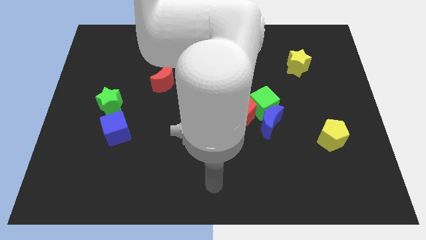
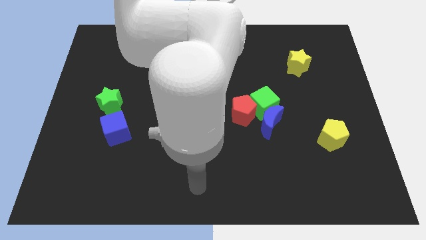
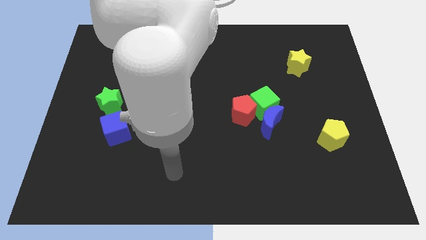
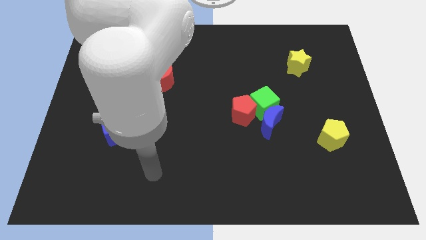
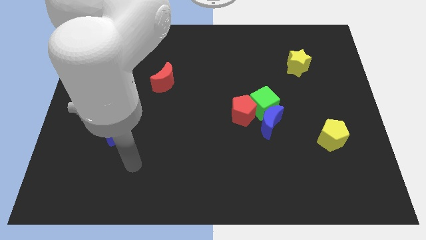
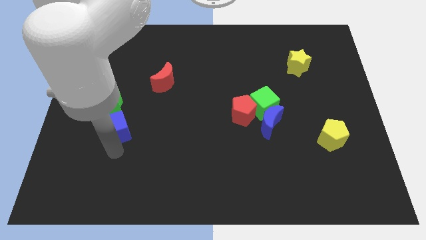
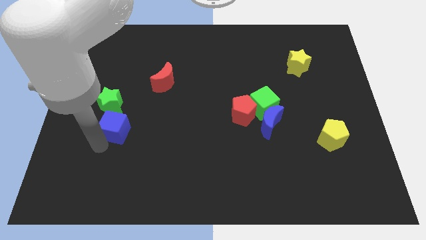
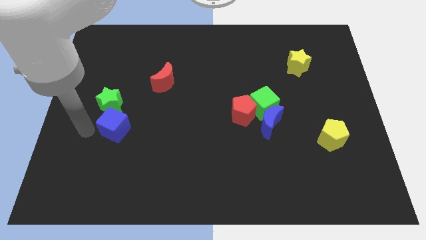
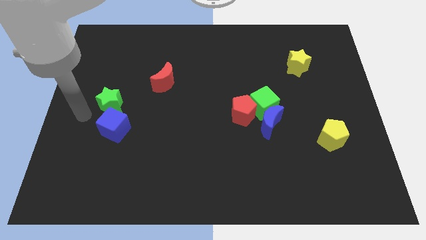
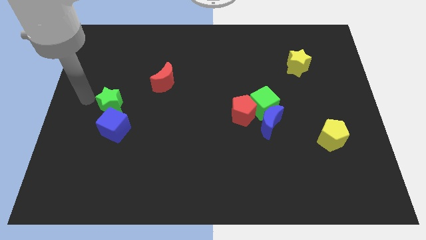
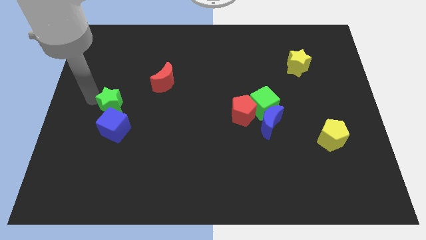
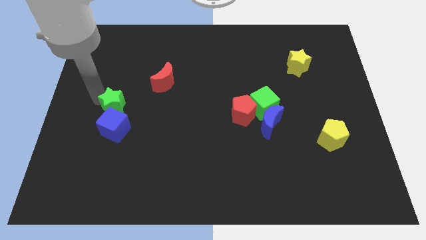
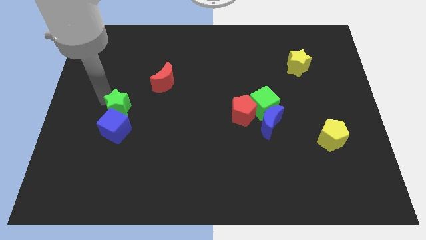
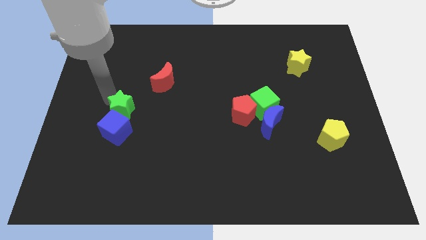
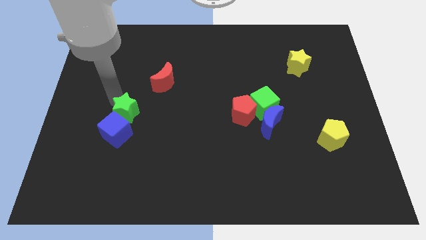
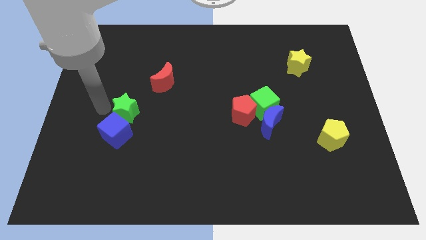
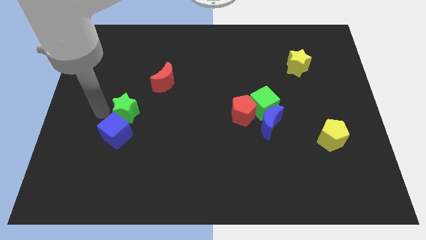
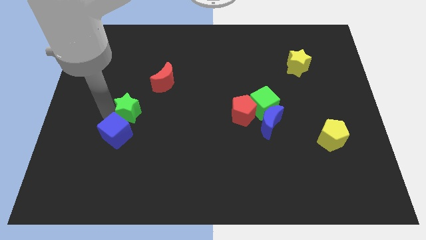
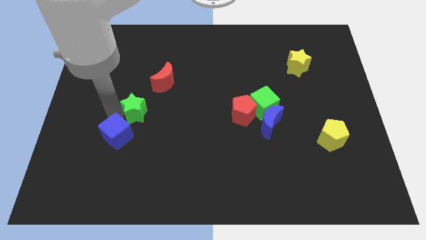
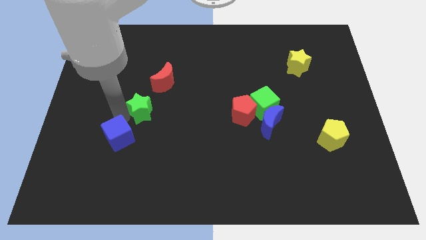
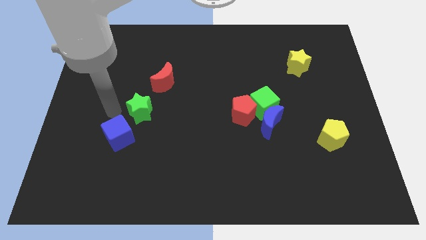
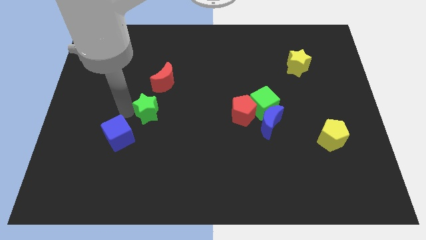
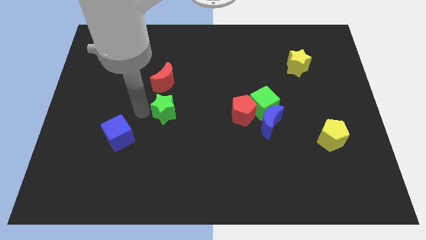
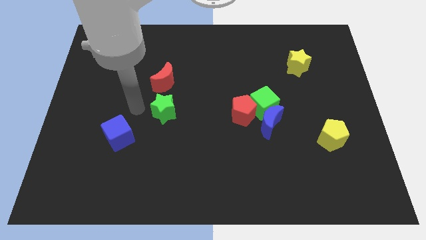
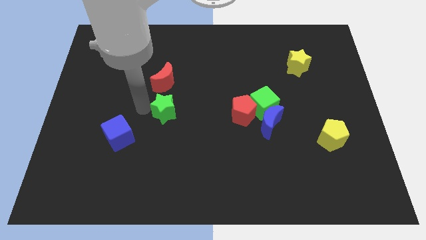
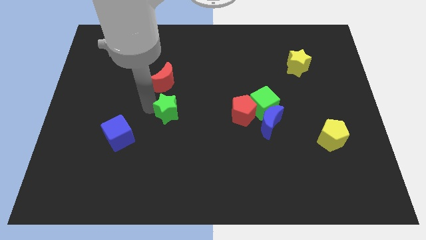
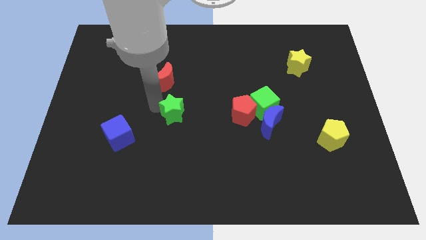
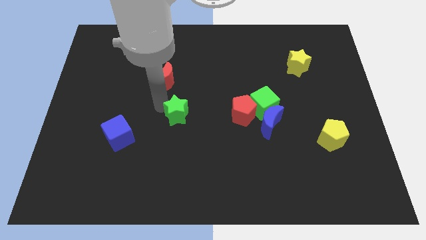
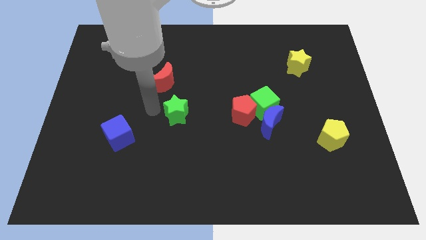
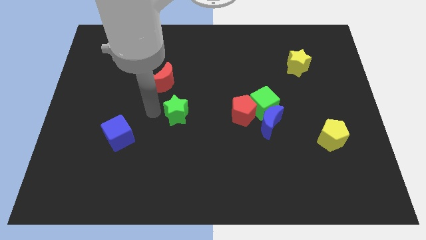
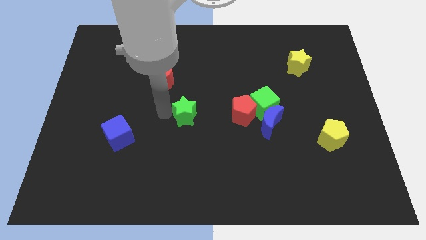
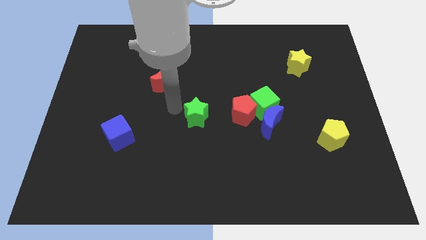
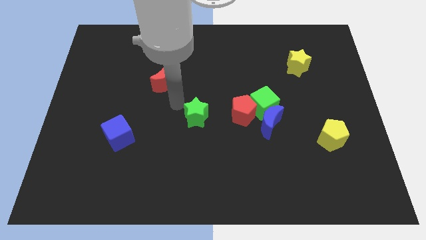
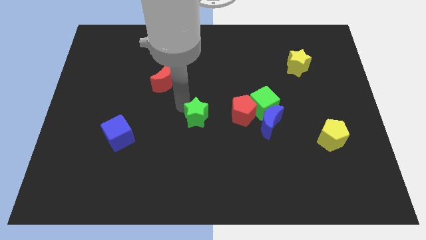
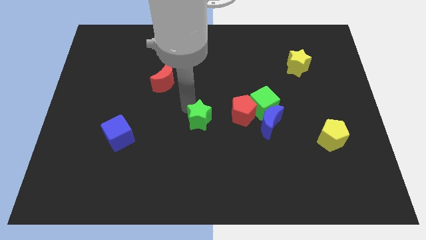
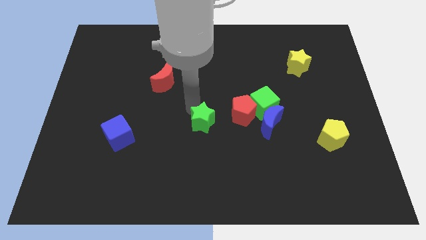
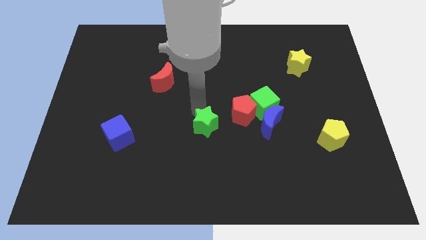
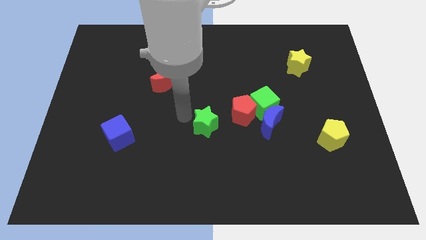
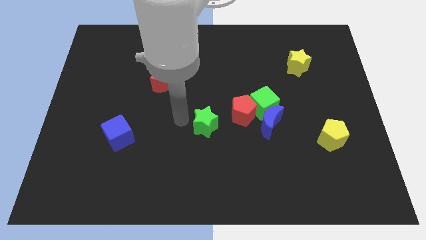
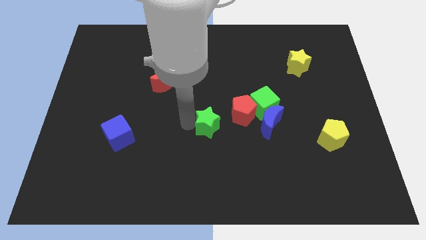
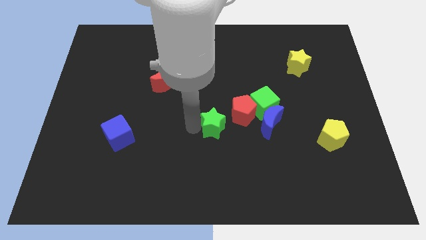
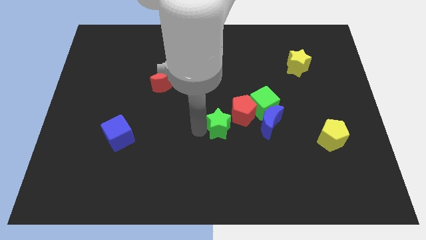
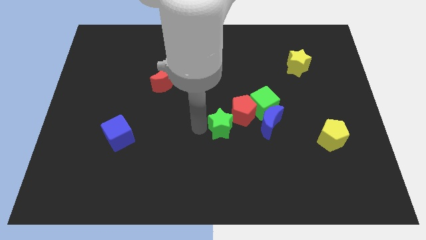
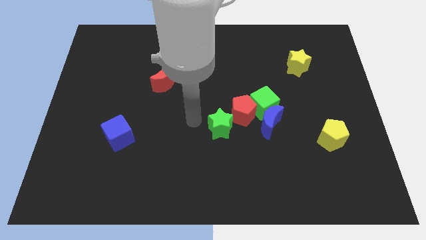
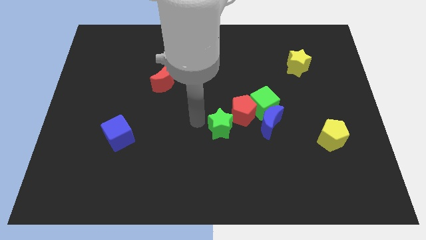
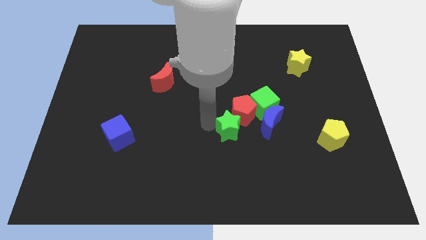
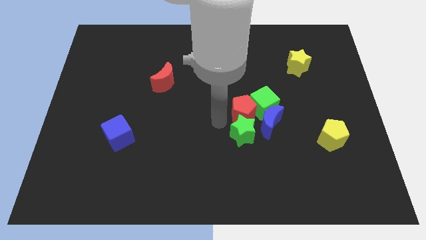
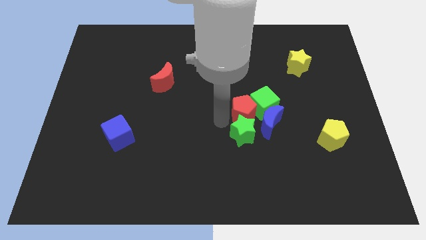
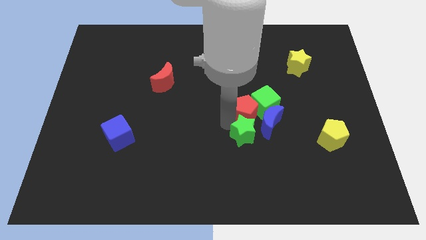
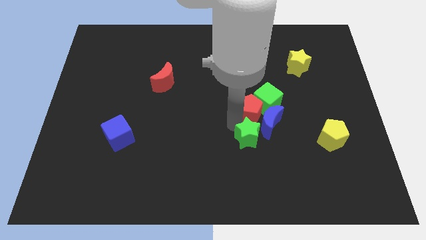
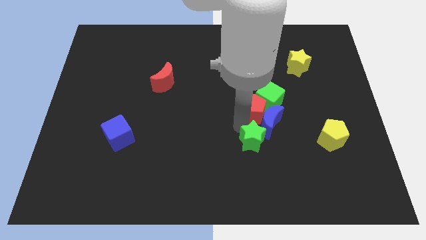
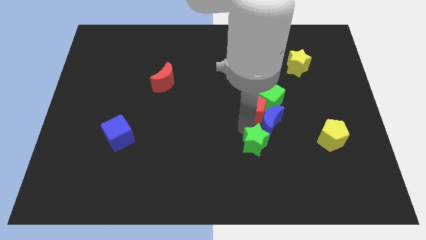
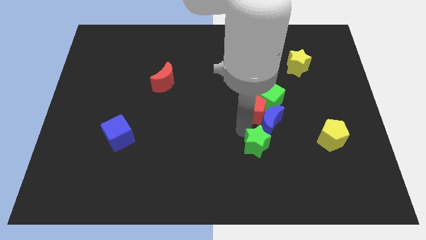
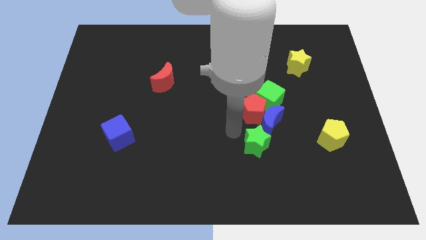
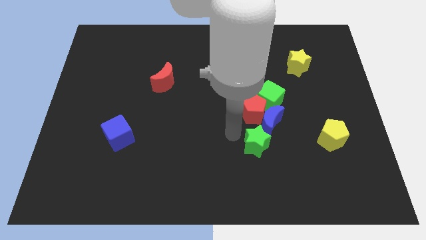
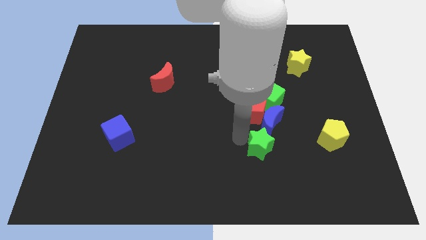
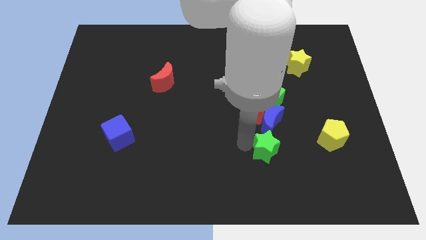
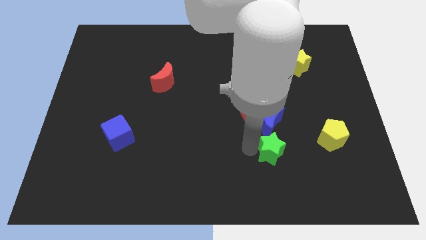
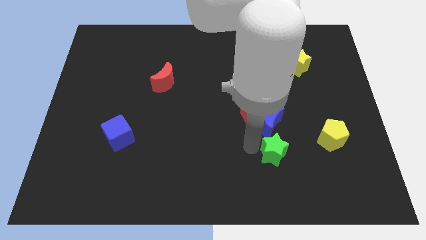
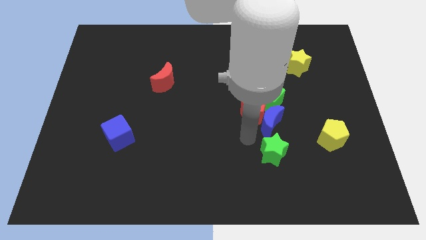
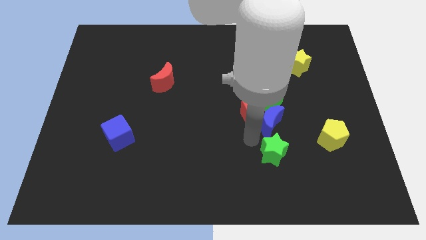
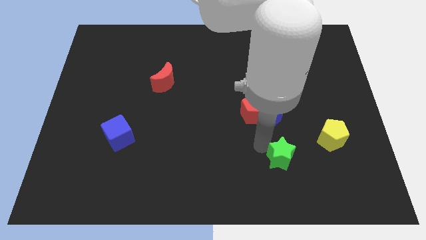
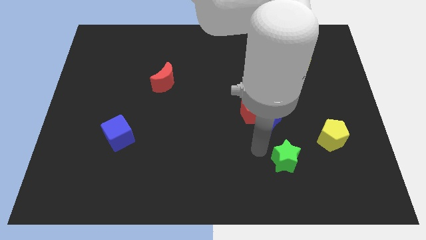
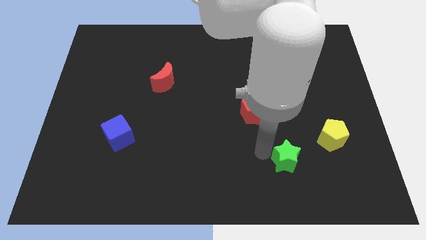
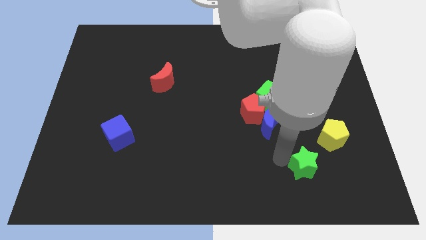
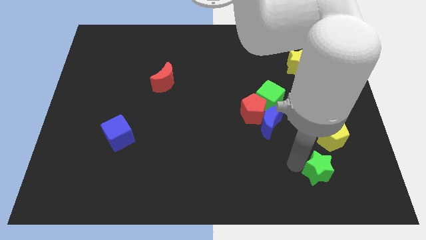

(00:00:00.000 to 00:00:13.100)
push the green star to the bottom of the yellow pentagon
